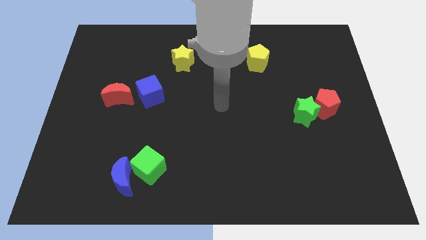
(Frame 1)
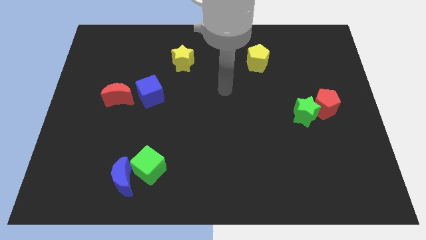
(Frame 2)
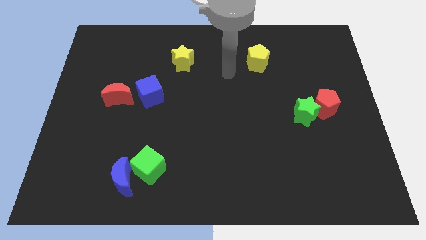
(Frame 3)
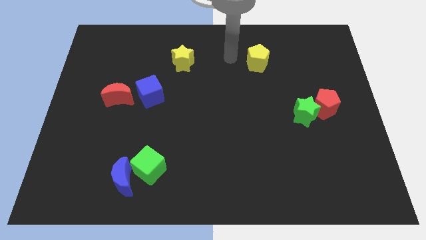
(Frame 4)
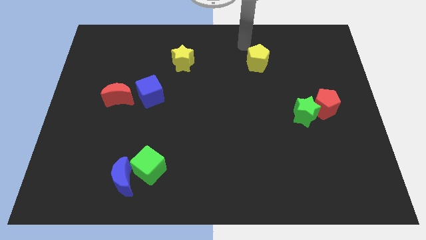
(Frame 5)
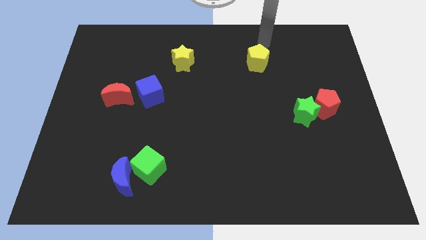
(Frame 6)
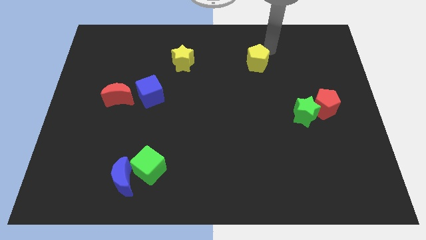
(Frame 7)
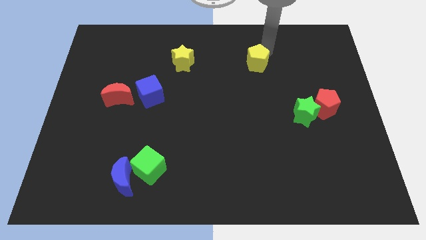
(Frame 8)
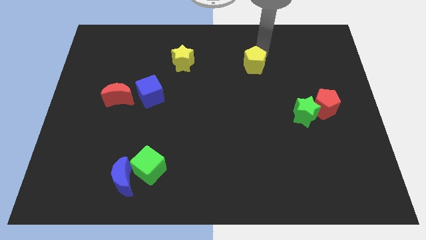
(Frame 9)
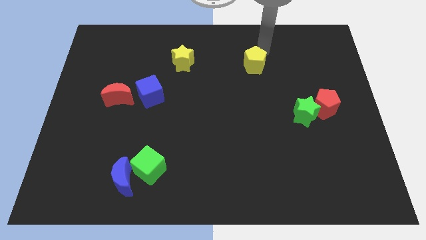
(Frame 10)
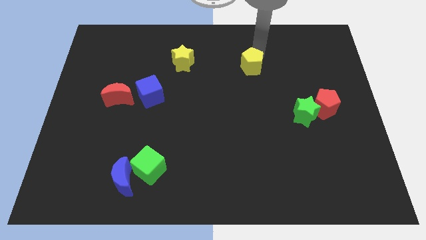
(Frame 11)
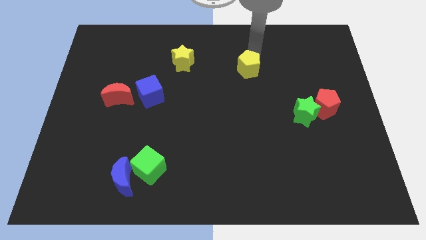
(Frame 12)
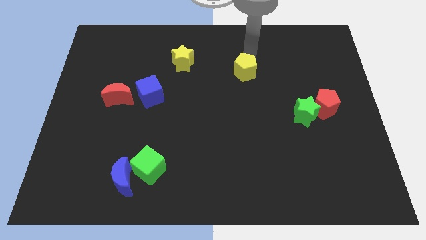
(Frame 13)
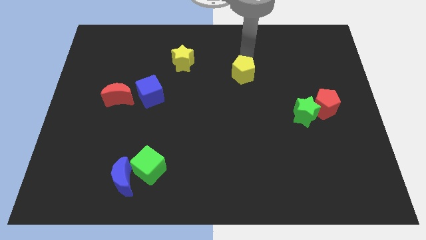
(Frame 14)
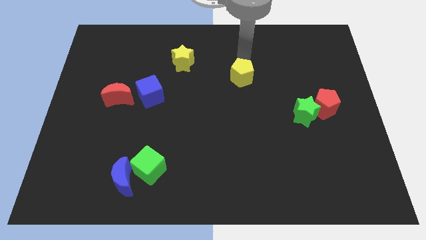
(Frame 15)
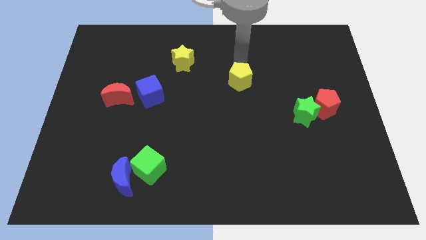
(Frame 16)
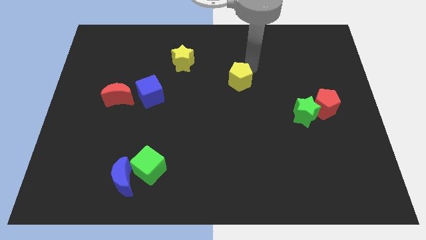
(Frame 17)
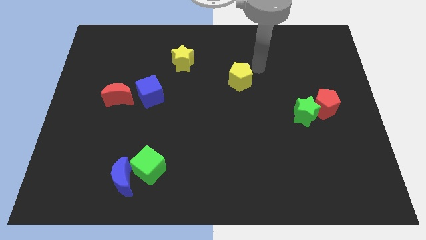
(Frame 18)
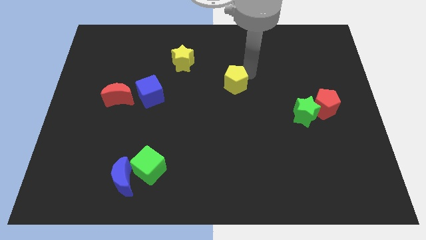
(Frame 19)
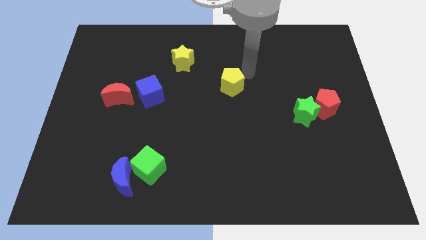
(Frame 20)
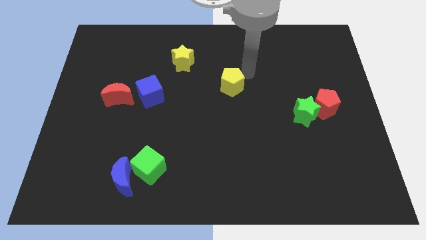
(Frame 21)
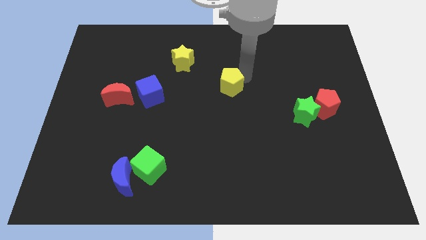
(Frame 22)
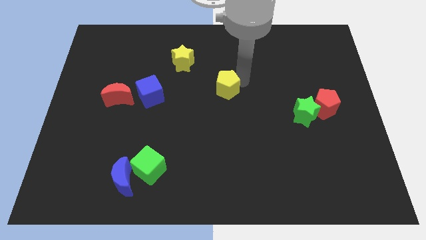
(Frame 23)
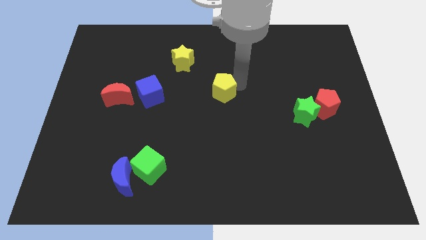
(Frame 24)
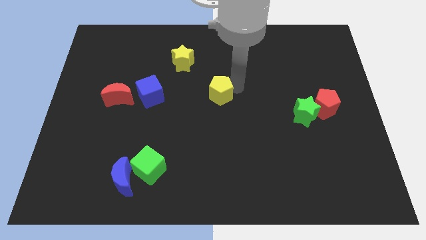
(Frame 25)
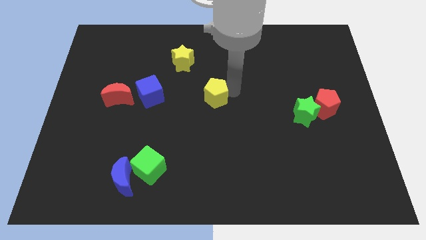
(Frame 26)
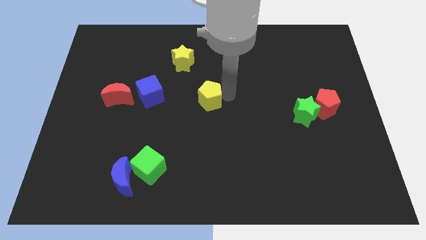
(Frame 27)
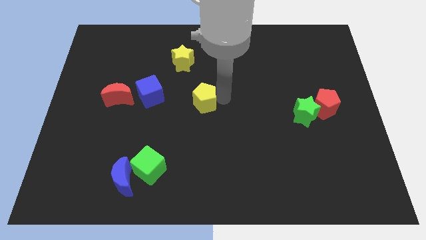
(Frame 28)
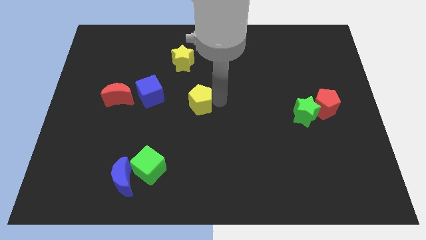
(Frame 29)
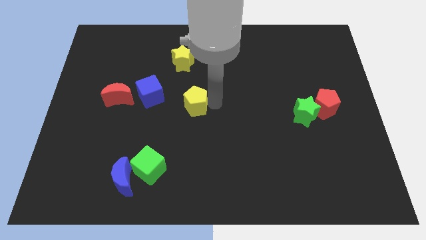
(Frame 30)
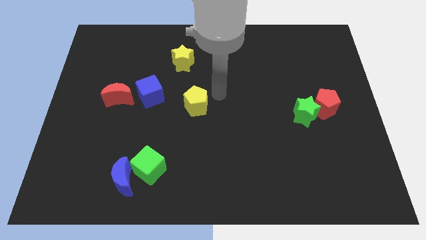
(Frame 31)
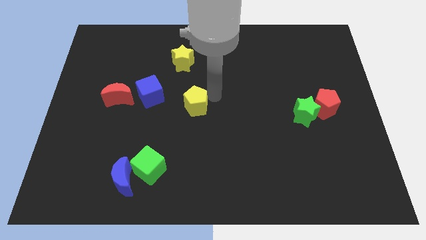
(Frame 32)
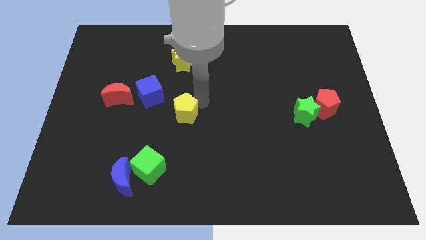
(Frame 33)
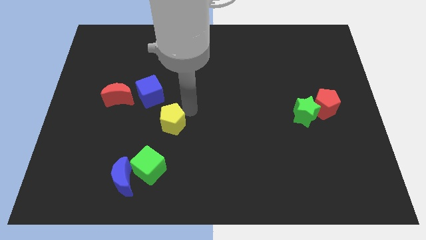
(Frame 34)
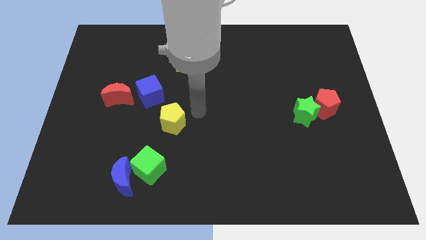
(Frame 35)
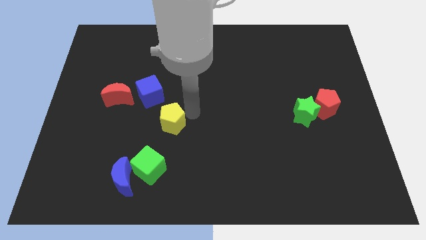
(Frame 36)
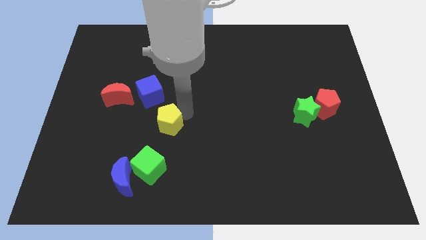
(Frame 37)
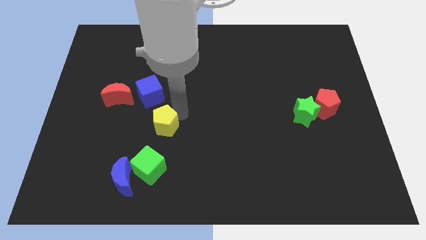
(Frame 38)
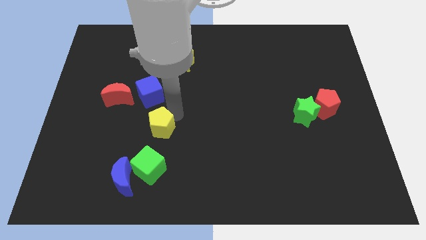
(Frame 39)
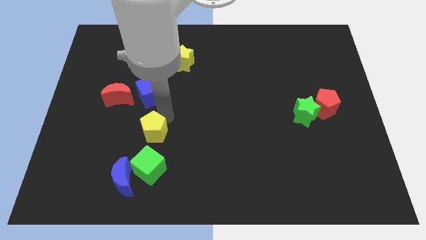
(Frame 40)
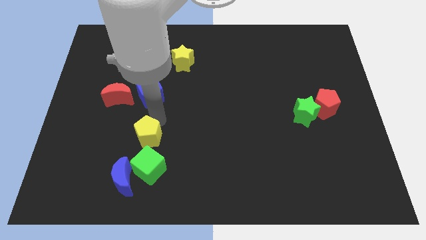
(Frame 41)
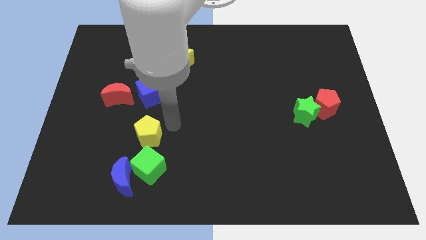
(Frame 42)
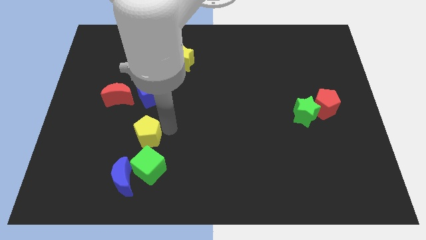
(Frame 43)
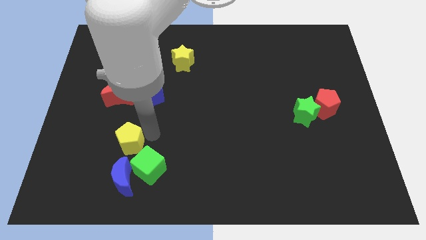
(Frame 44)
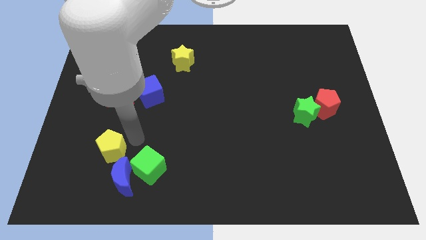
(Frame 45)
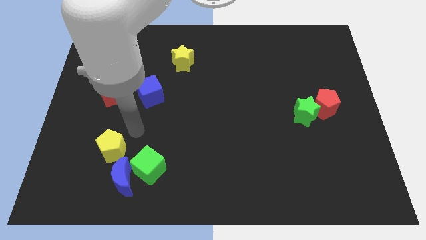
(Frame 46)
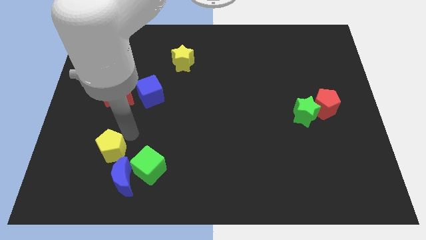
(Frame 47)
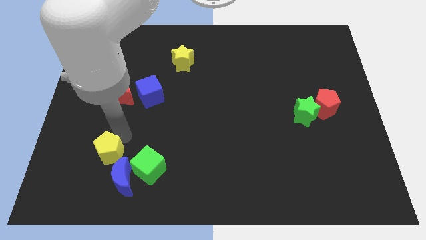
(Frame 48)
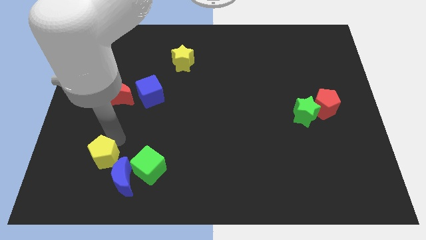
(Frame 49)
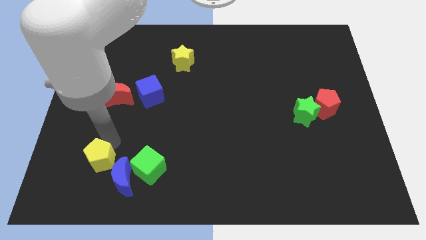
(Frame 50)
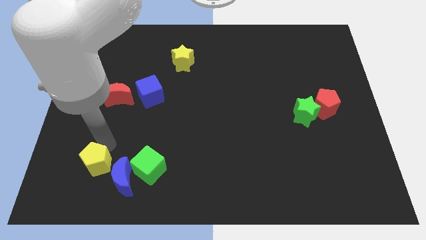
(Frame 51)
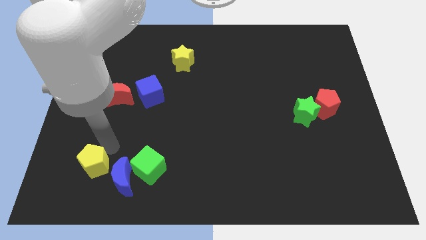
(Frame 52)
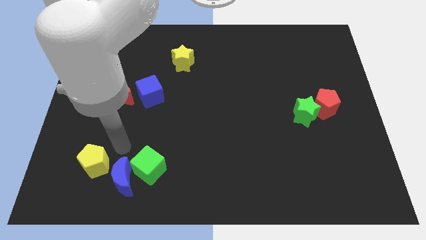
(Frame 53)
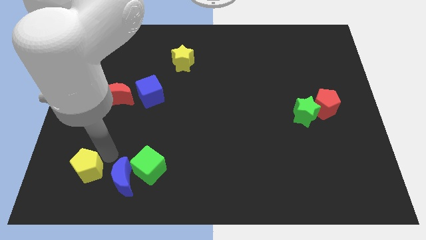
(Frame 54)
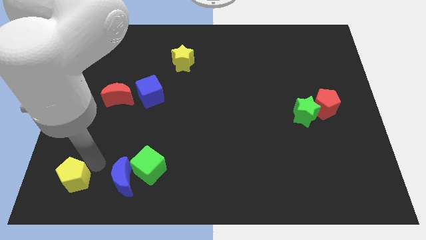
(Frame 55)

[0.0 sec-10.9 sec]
put the yellow pentagon to the lower left corner

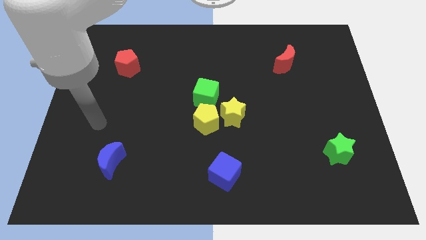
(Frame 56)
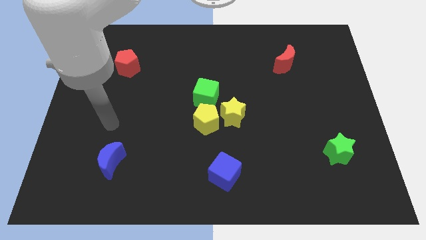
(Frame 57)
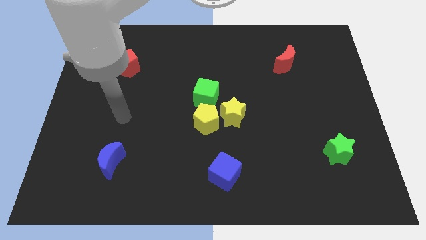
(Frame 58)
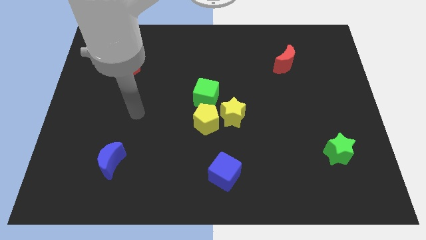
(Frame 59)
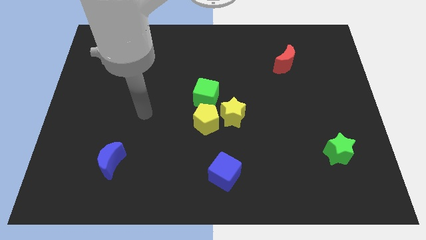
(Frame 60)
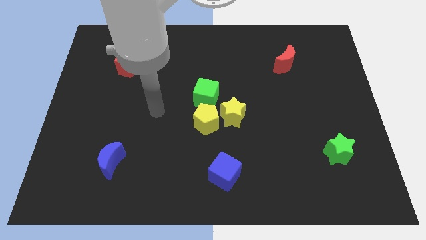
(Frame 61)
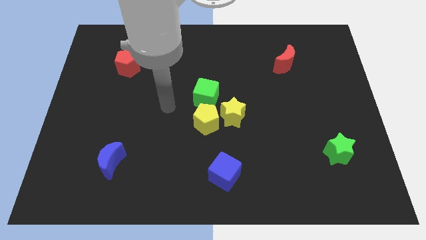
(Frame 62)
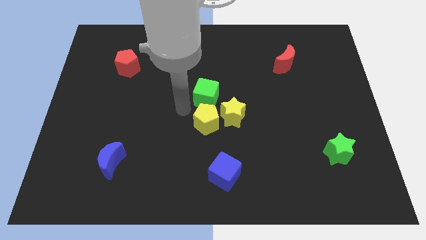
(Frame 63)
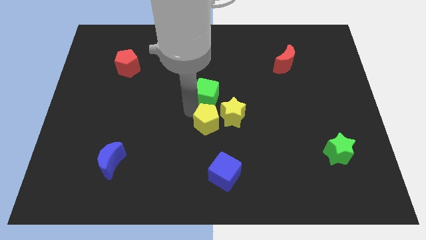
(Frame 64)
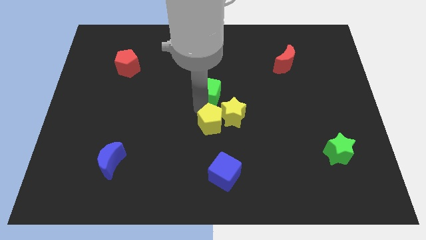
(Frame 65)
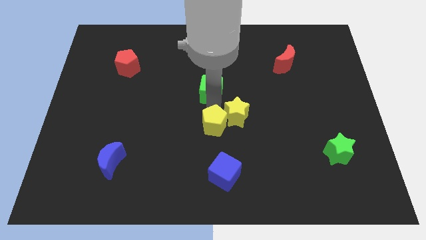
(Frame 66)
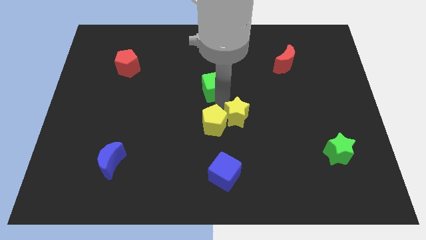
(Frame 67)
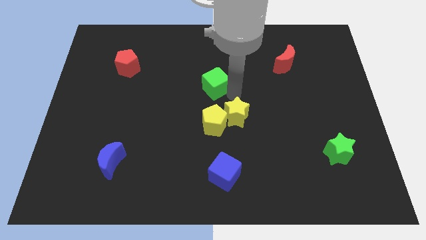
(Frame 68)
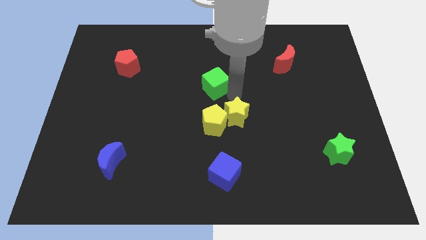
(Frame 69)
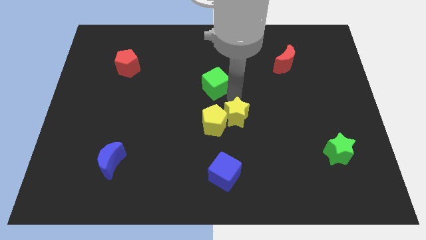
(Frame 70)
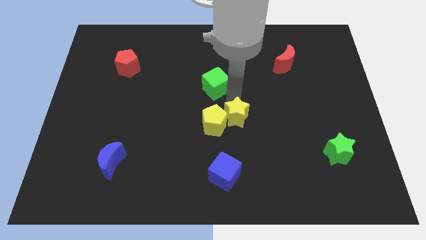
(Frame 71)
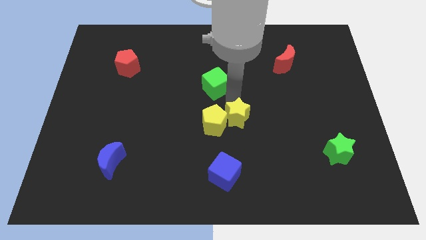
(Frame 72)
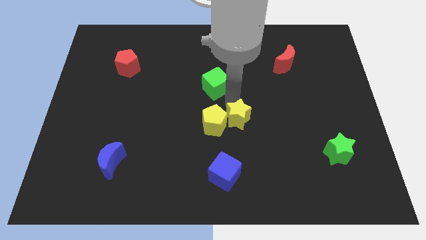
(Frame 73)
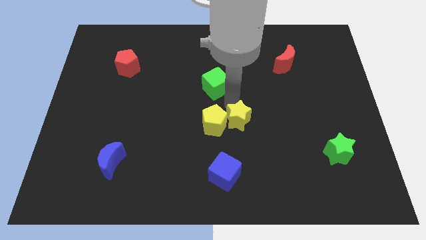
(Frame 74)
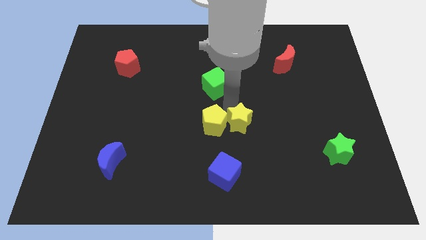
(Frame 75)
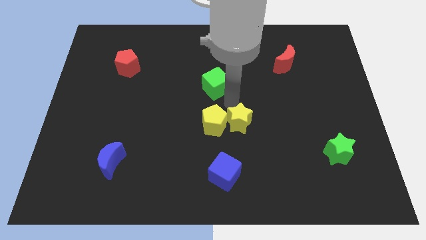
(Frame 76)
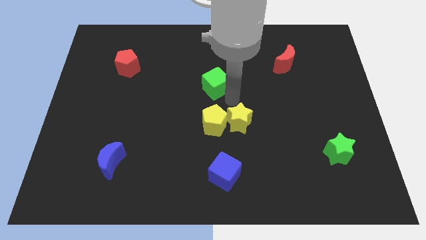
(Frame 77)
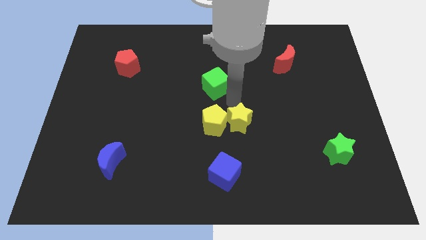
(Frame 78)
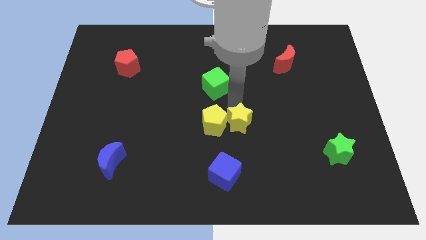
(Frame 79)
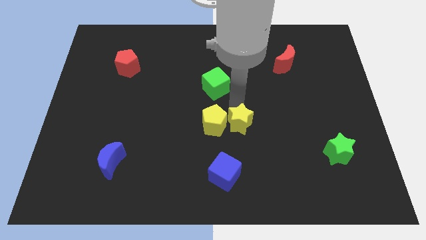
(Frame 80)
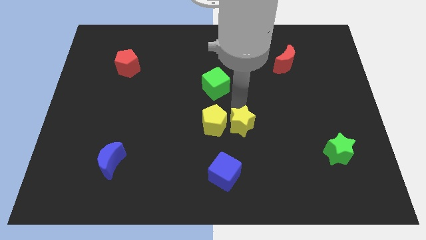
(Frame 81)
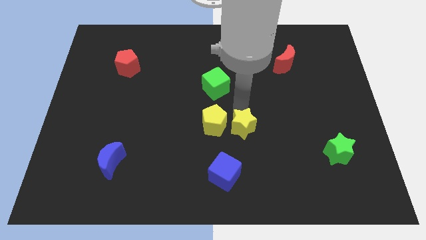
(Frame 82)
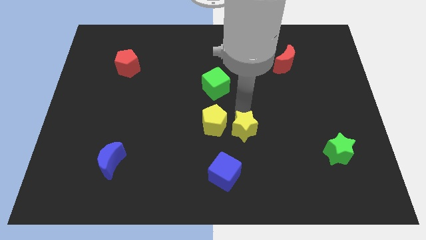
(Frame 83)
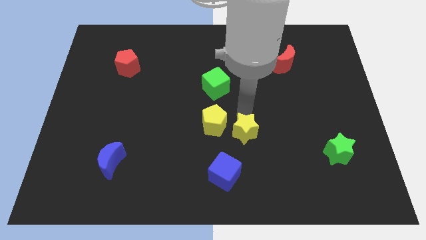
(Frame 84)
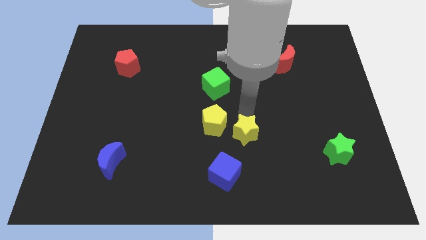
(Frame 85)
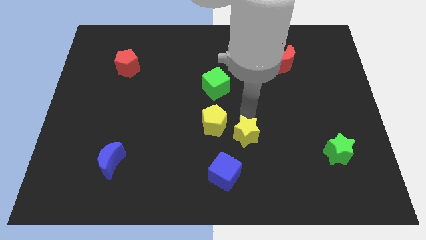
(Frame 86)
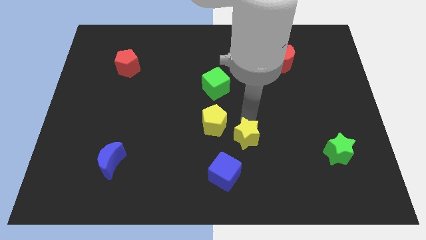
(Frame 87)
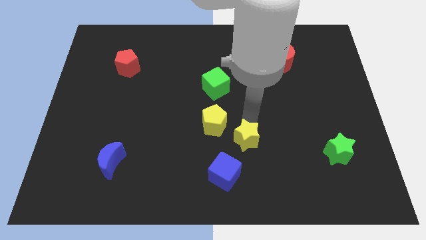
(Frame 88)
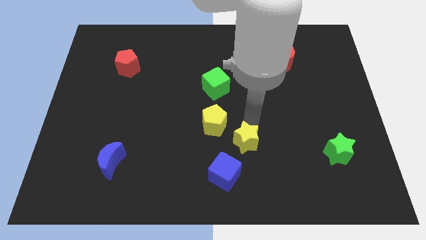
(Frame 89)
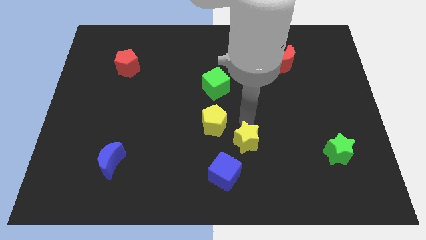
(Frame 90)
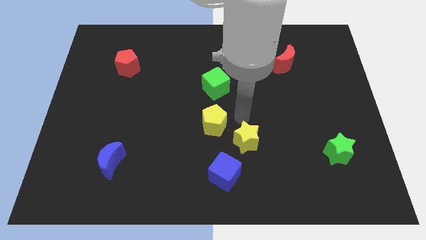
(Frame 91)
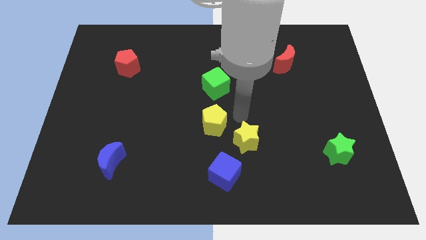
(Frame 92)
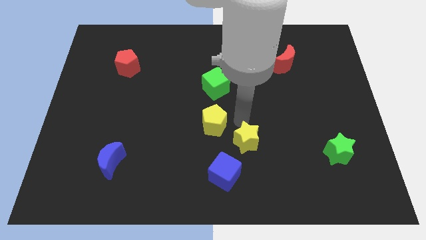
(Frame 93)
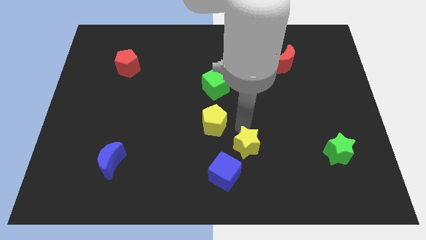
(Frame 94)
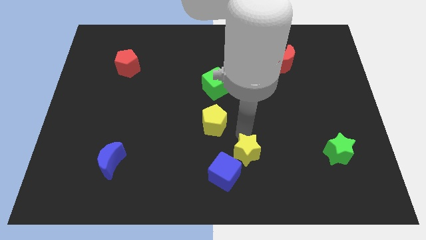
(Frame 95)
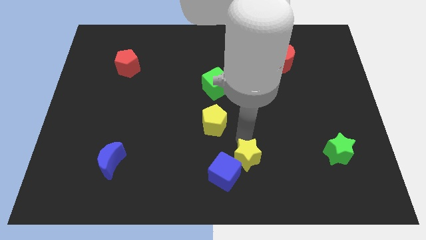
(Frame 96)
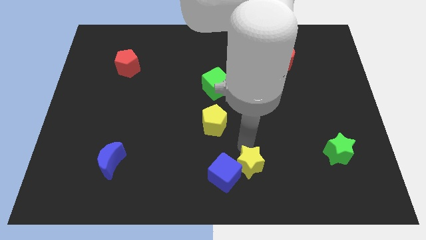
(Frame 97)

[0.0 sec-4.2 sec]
move the yellow star to the bottom side
